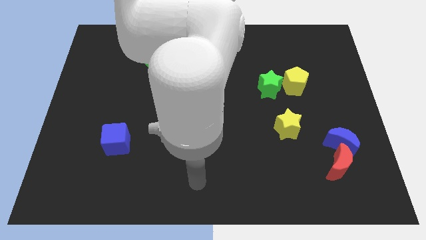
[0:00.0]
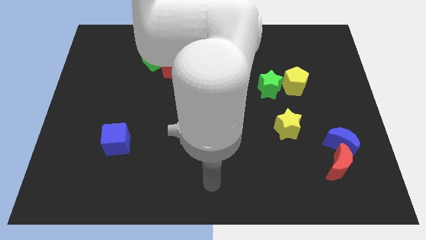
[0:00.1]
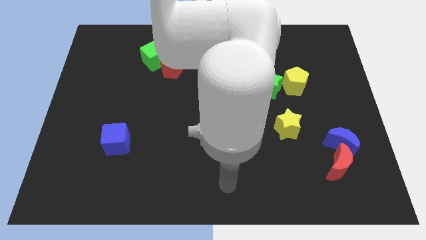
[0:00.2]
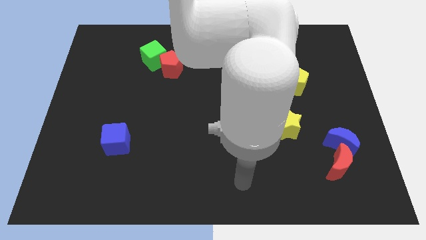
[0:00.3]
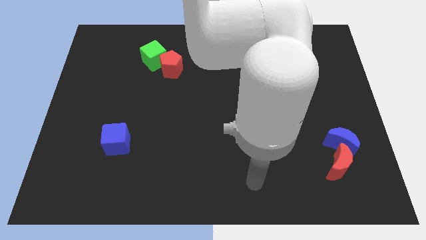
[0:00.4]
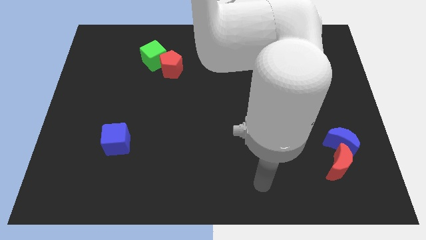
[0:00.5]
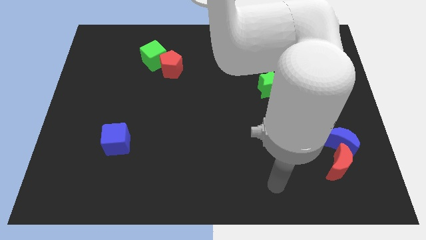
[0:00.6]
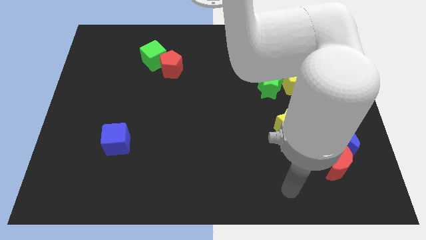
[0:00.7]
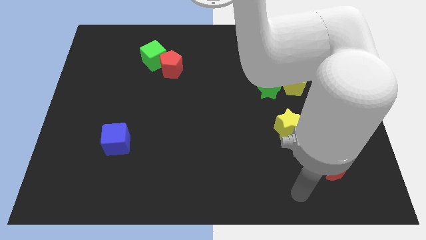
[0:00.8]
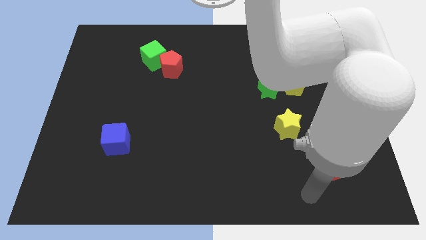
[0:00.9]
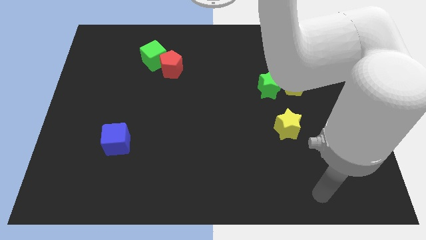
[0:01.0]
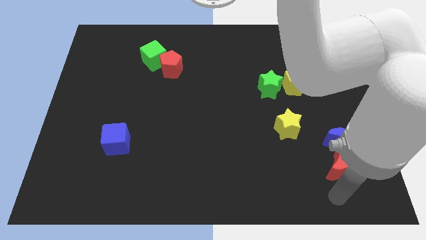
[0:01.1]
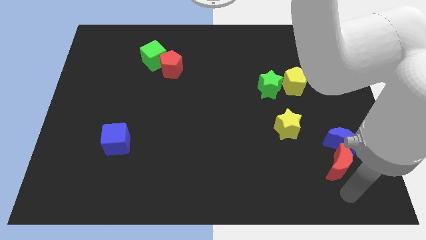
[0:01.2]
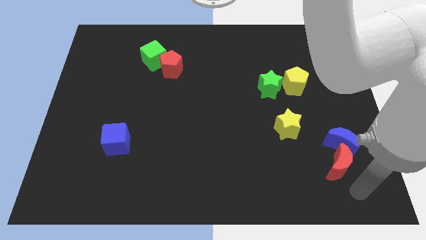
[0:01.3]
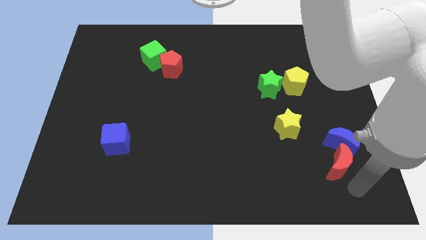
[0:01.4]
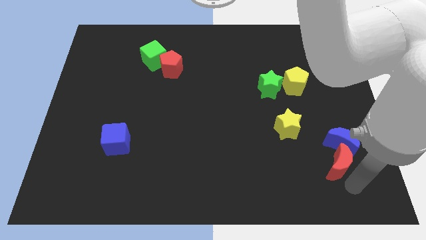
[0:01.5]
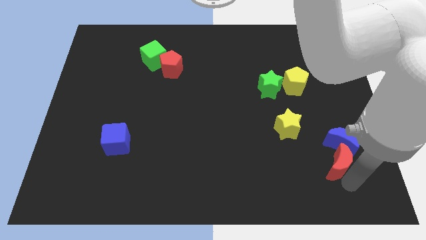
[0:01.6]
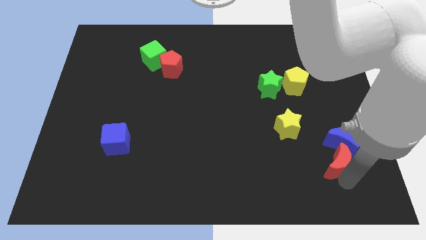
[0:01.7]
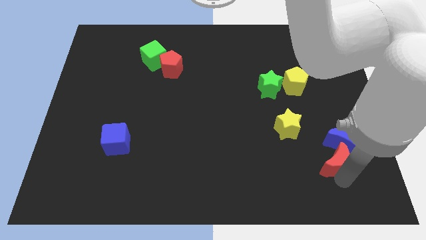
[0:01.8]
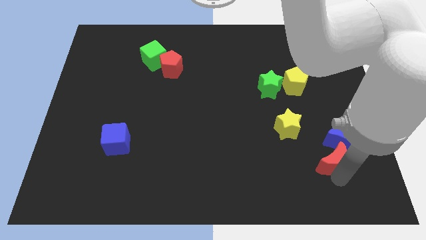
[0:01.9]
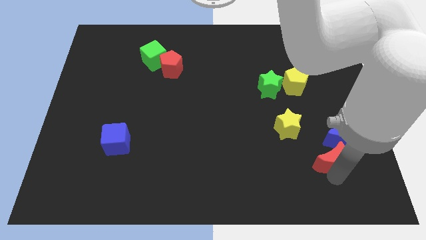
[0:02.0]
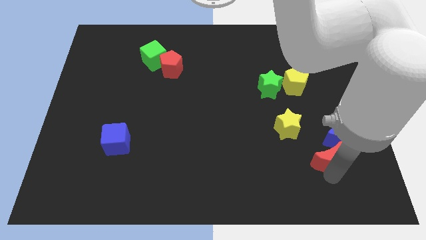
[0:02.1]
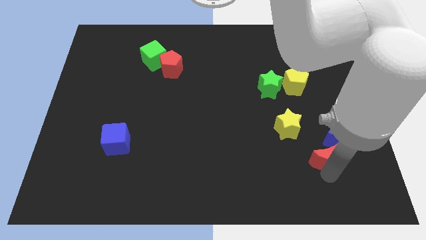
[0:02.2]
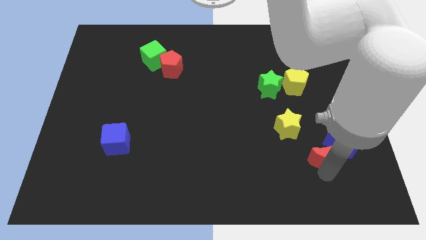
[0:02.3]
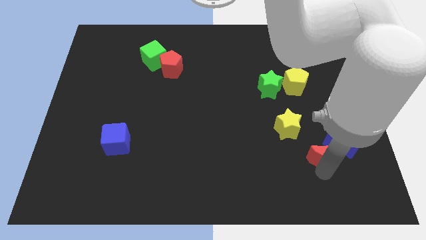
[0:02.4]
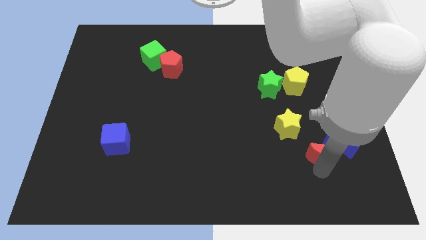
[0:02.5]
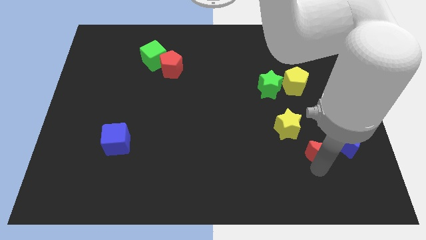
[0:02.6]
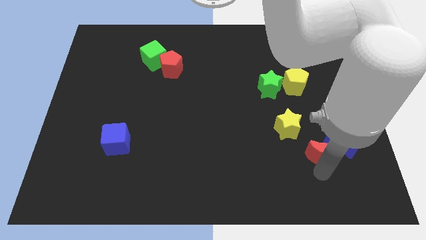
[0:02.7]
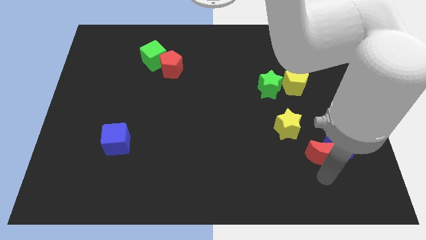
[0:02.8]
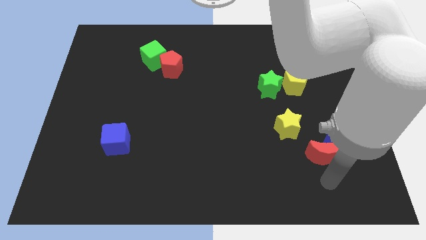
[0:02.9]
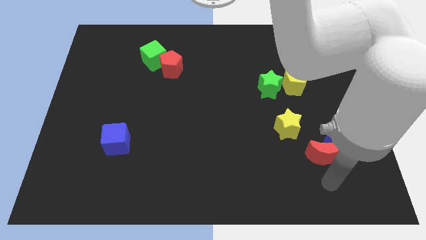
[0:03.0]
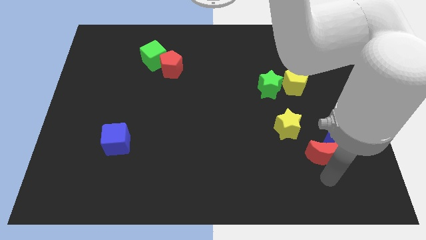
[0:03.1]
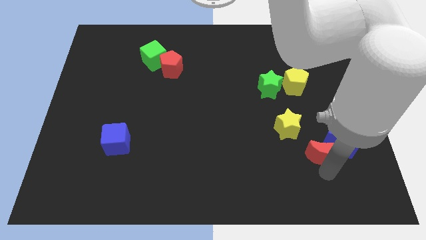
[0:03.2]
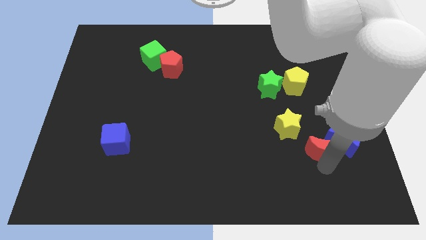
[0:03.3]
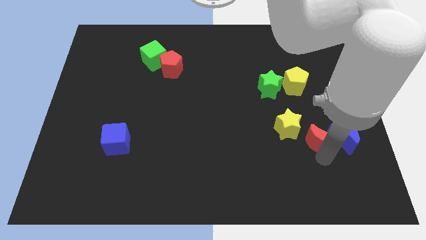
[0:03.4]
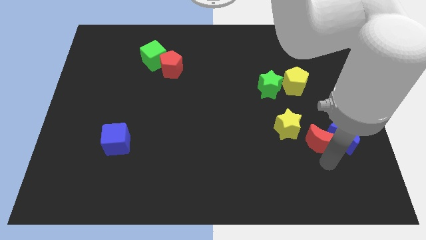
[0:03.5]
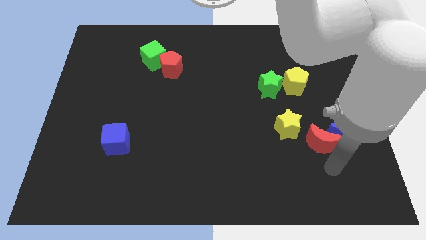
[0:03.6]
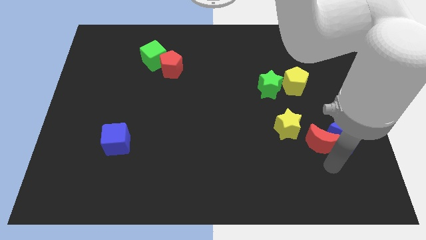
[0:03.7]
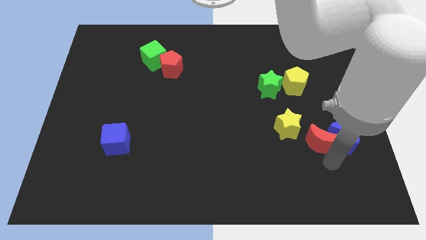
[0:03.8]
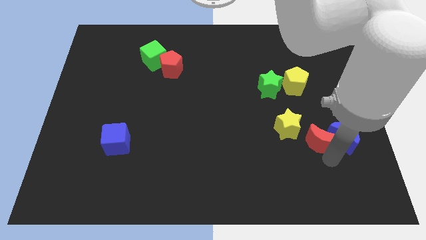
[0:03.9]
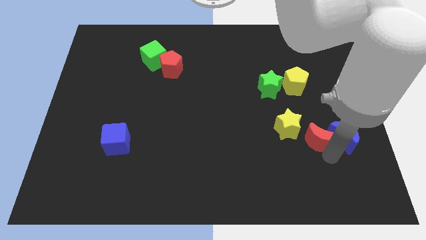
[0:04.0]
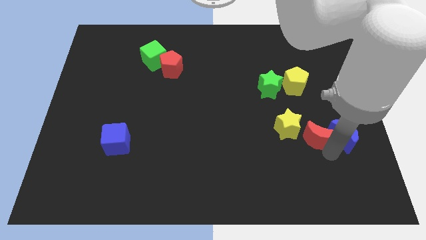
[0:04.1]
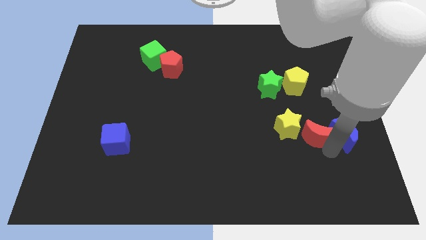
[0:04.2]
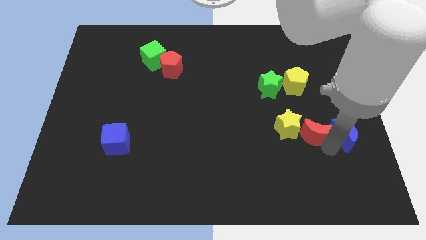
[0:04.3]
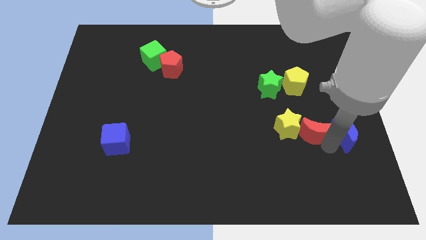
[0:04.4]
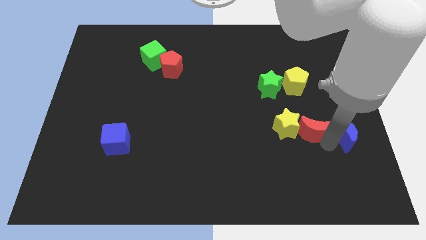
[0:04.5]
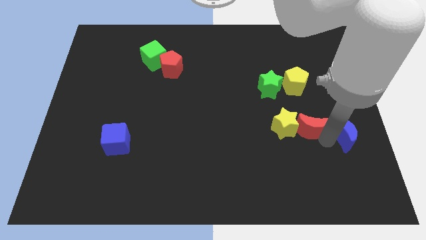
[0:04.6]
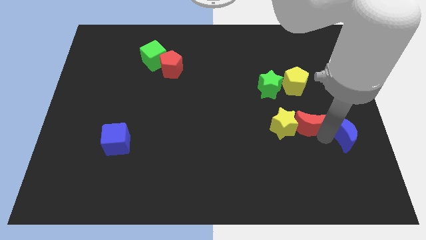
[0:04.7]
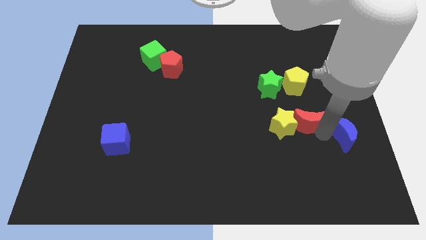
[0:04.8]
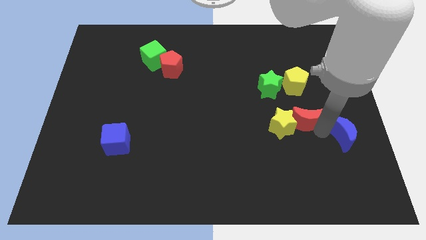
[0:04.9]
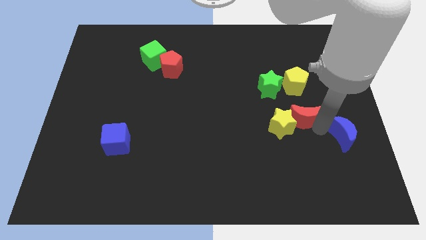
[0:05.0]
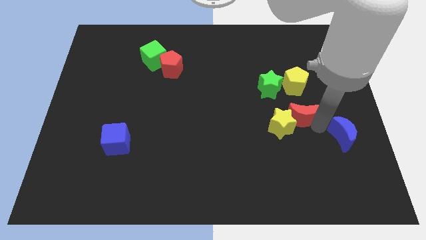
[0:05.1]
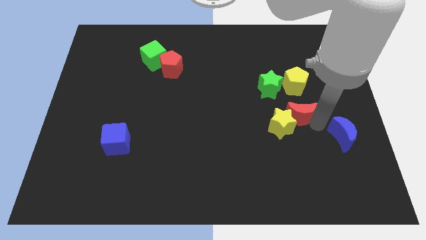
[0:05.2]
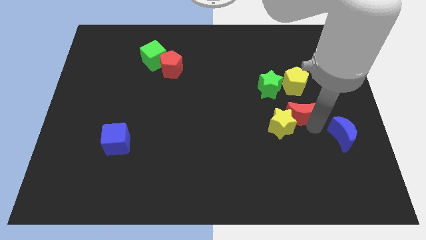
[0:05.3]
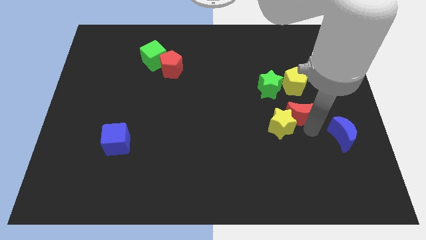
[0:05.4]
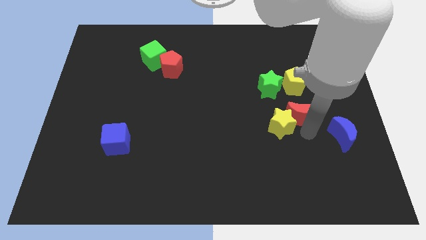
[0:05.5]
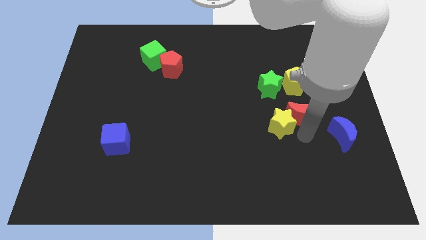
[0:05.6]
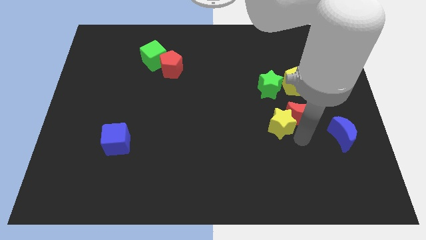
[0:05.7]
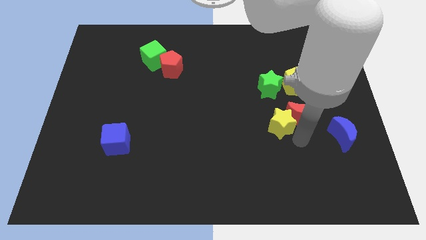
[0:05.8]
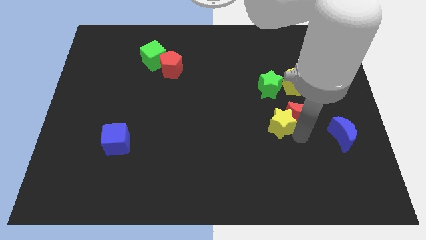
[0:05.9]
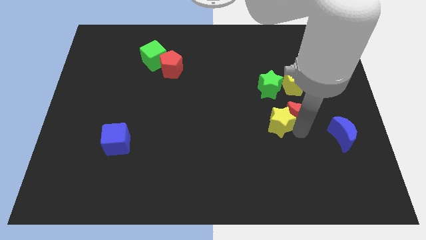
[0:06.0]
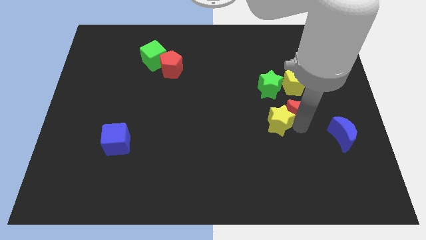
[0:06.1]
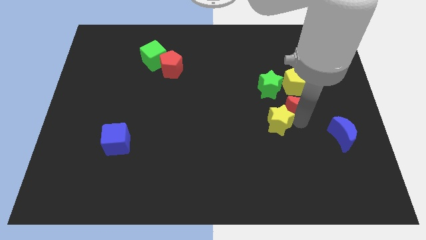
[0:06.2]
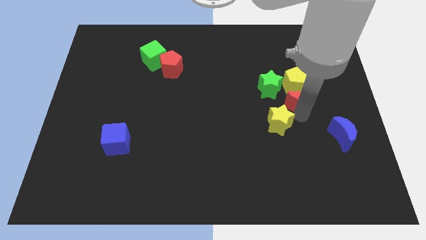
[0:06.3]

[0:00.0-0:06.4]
put the red moon to the yellow pentagon

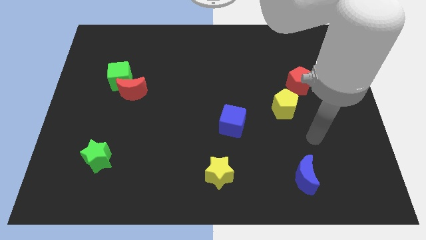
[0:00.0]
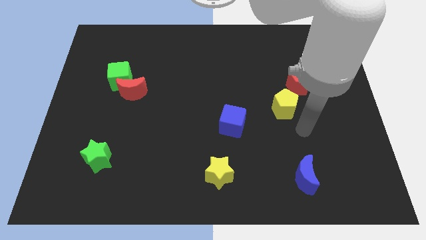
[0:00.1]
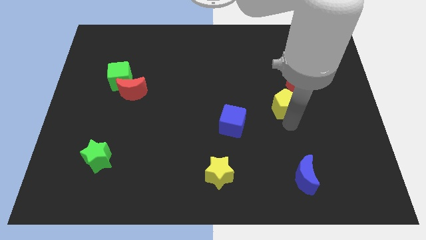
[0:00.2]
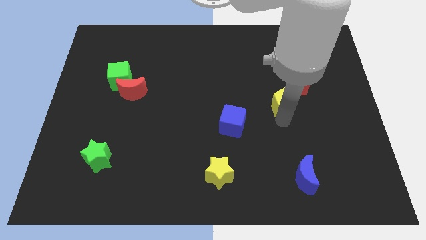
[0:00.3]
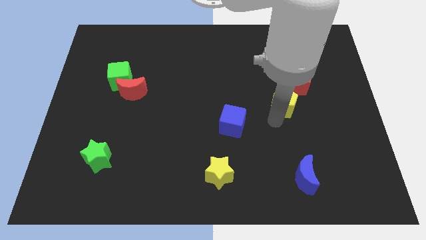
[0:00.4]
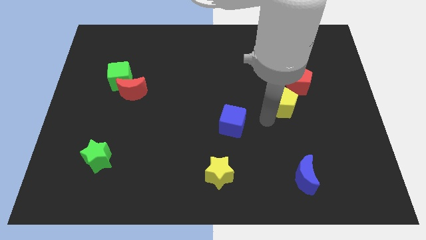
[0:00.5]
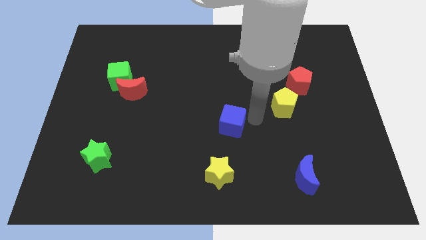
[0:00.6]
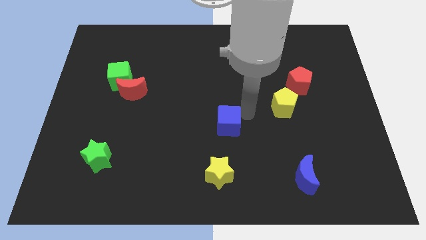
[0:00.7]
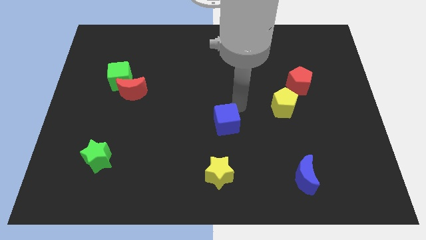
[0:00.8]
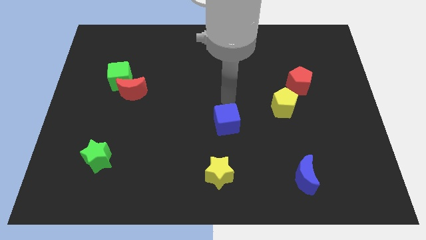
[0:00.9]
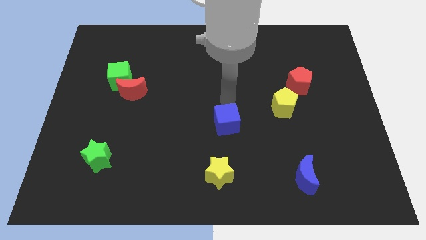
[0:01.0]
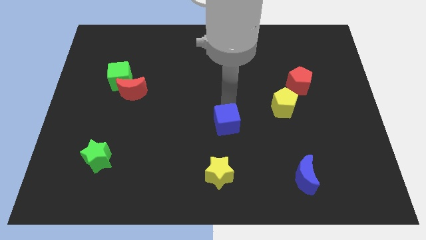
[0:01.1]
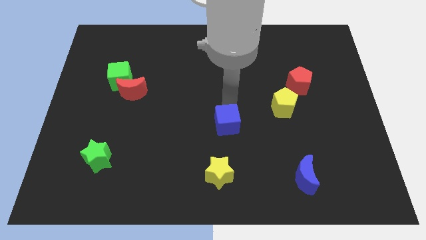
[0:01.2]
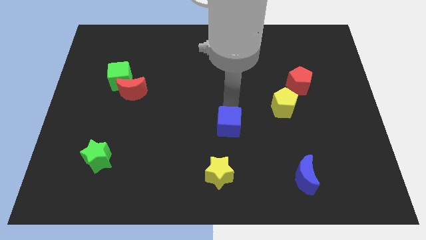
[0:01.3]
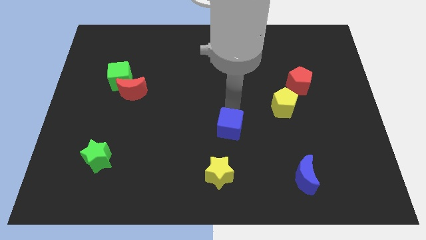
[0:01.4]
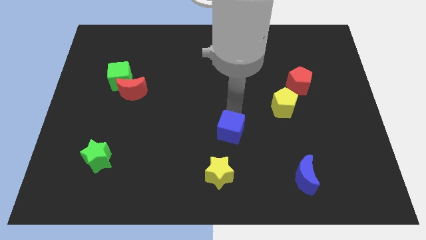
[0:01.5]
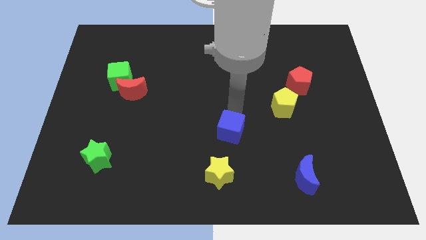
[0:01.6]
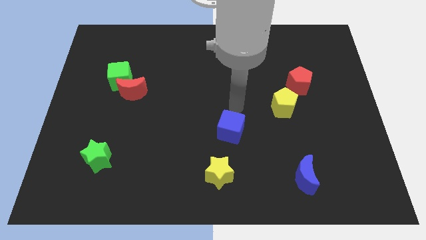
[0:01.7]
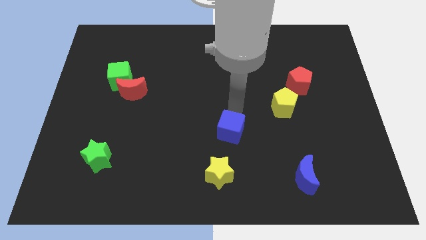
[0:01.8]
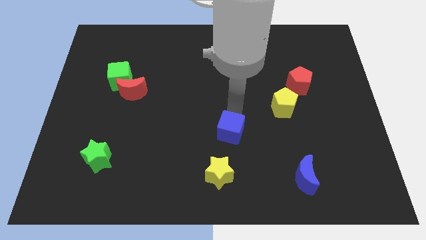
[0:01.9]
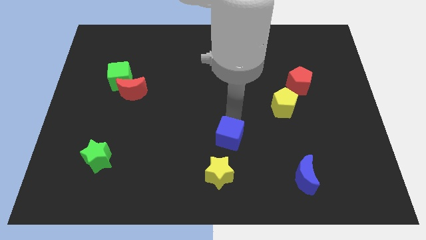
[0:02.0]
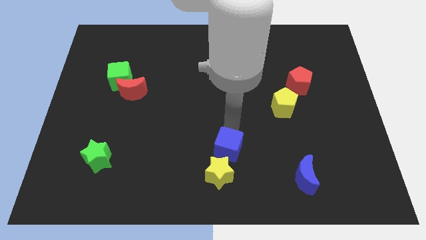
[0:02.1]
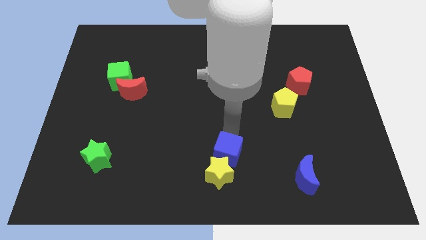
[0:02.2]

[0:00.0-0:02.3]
put the blue cube next to the yellow star
